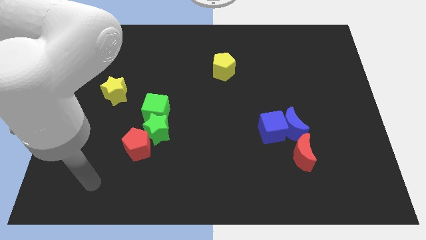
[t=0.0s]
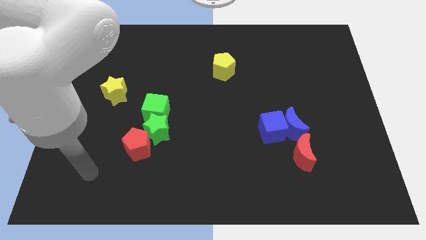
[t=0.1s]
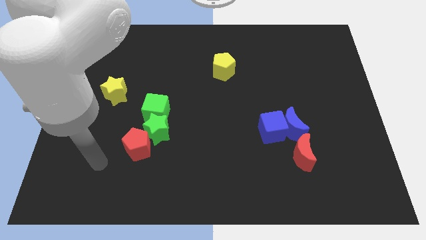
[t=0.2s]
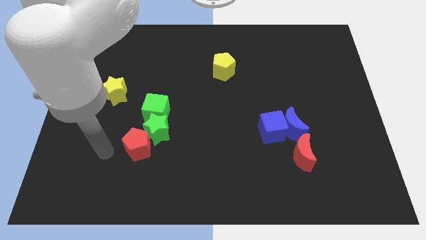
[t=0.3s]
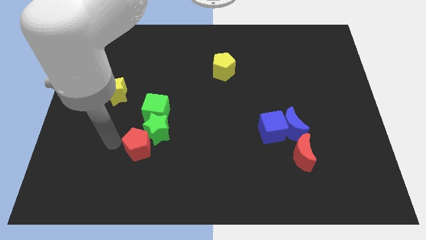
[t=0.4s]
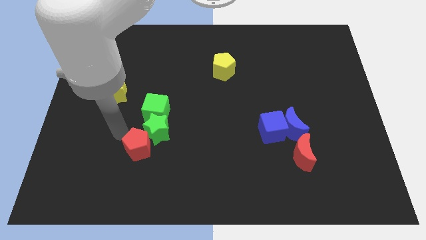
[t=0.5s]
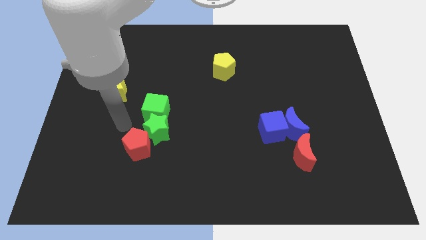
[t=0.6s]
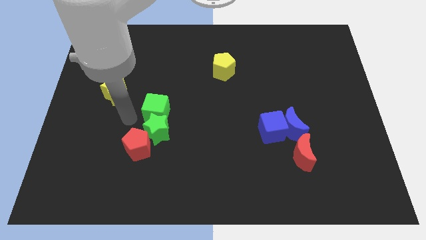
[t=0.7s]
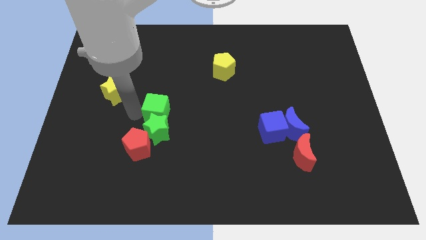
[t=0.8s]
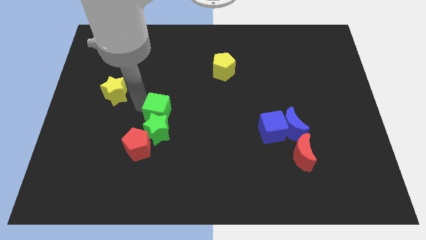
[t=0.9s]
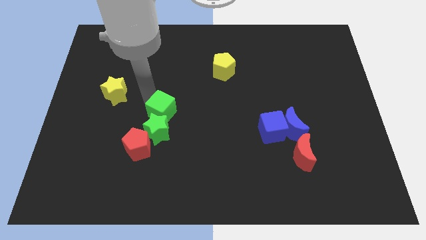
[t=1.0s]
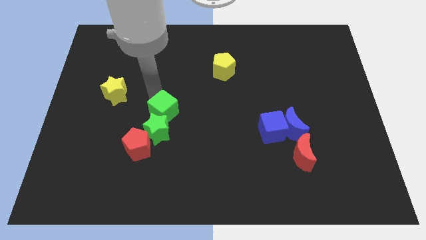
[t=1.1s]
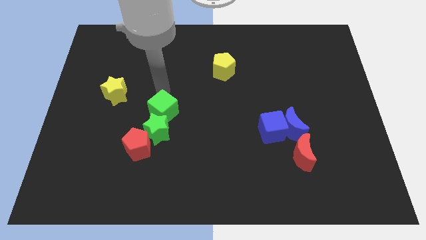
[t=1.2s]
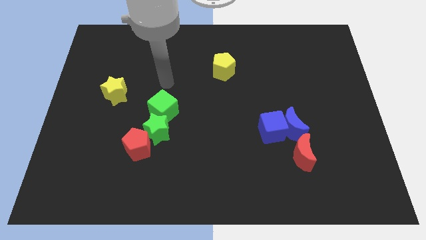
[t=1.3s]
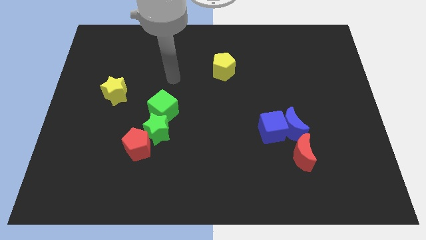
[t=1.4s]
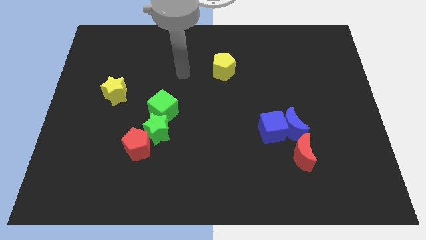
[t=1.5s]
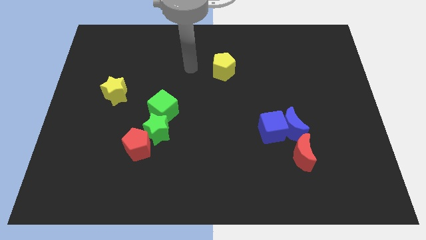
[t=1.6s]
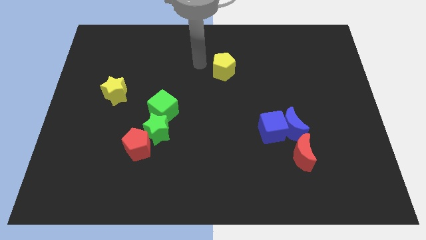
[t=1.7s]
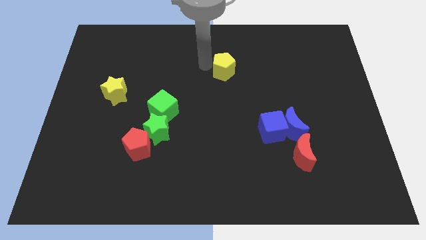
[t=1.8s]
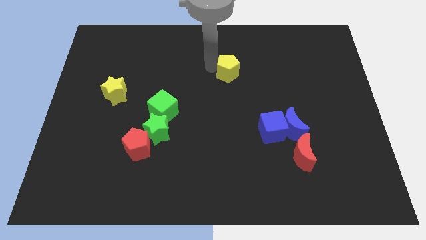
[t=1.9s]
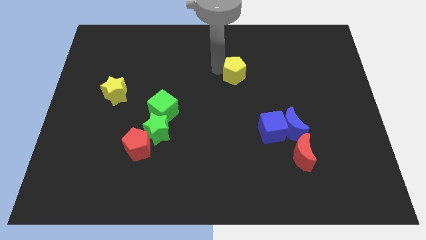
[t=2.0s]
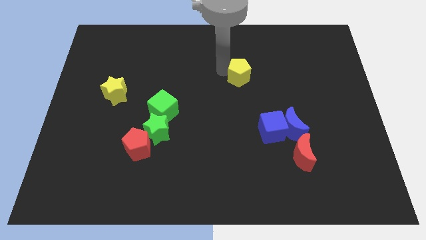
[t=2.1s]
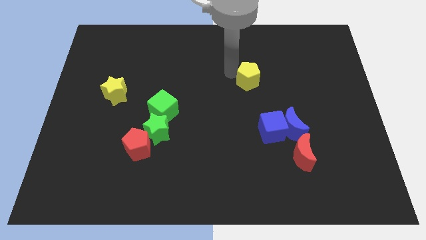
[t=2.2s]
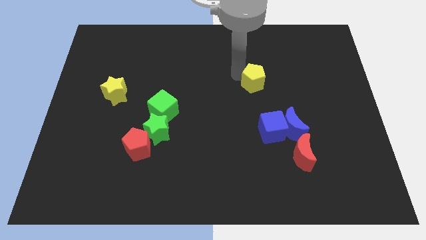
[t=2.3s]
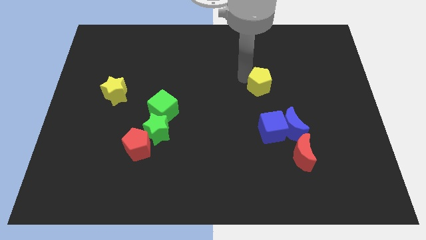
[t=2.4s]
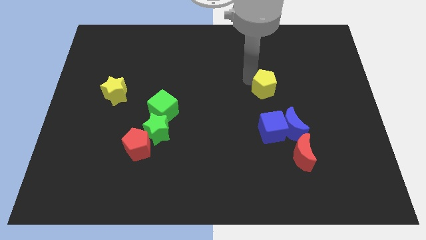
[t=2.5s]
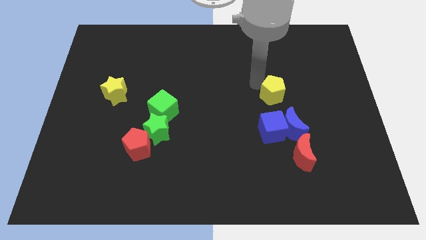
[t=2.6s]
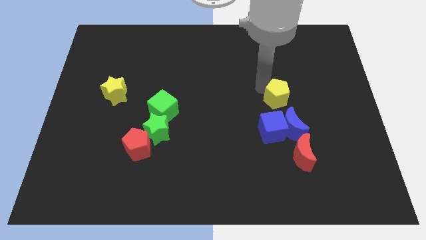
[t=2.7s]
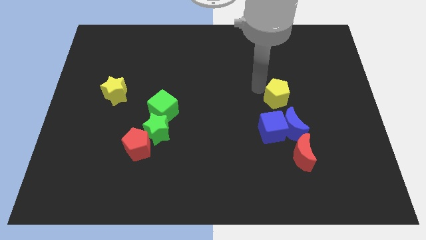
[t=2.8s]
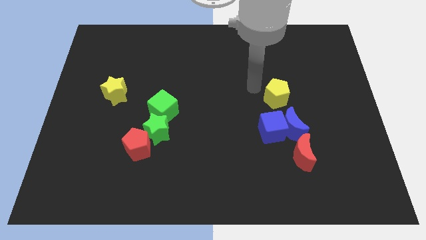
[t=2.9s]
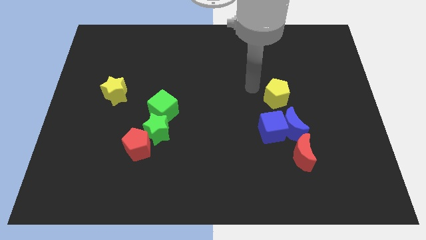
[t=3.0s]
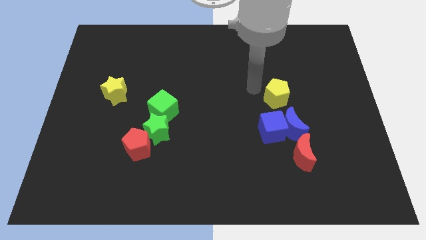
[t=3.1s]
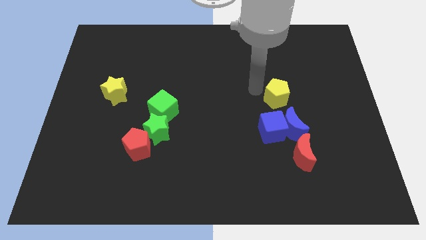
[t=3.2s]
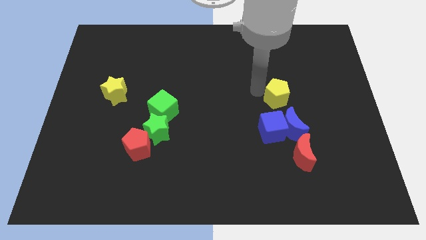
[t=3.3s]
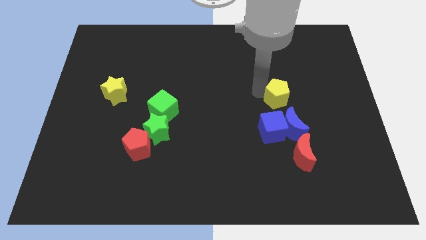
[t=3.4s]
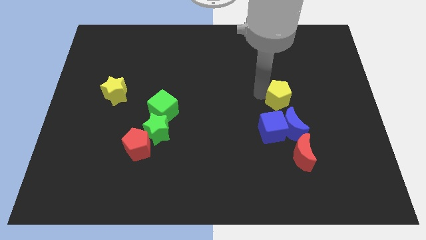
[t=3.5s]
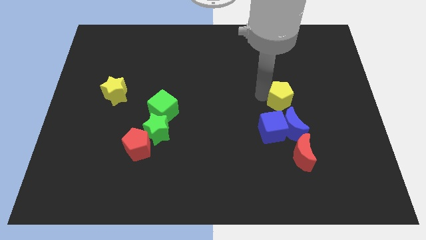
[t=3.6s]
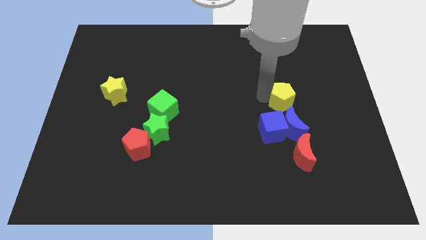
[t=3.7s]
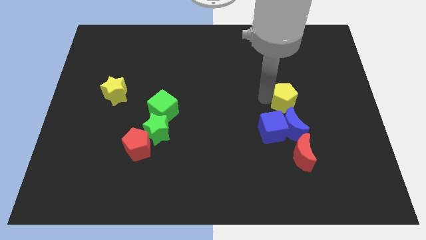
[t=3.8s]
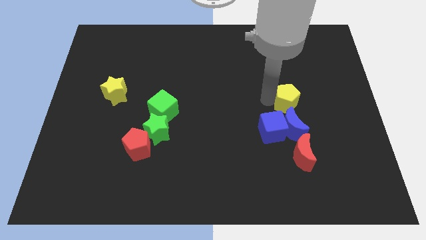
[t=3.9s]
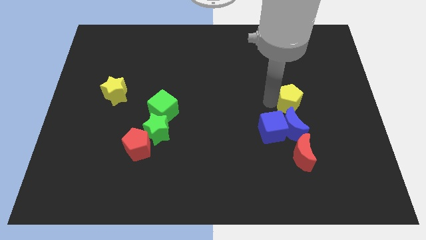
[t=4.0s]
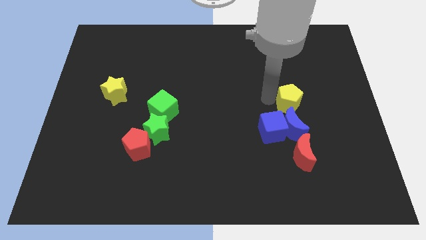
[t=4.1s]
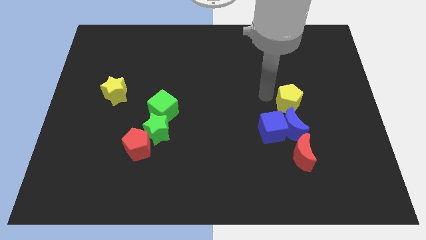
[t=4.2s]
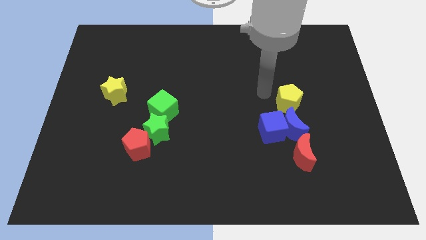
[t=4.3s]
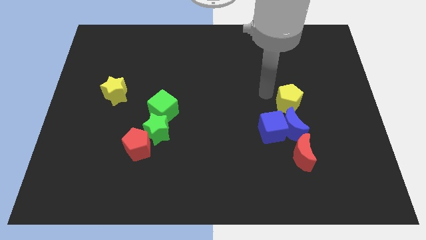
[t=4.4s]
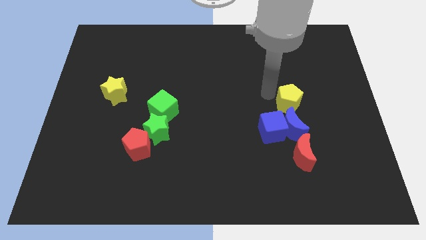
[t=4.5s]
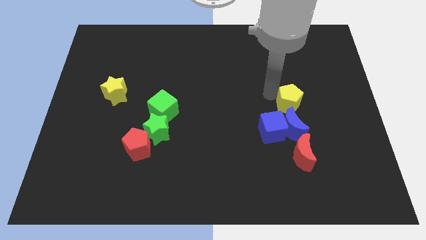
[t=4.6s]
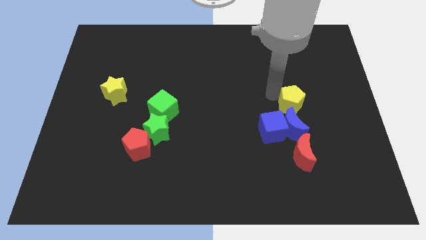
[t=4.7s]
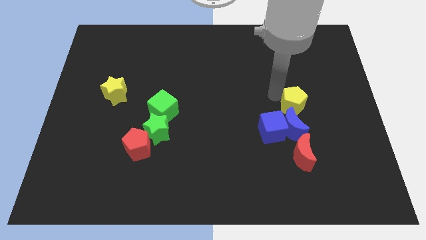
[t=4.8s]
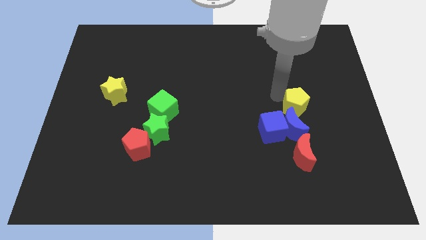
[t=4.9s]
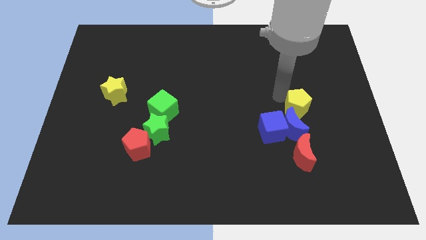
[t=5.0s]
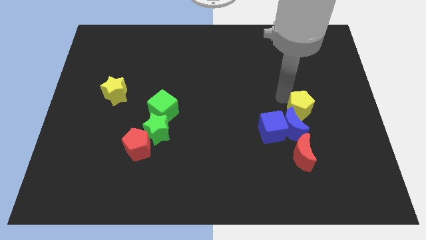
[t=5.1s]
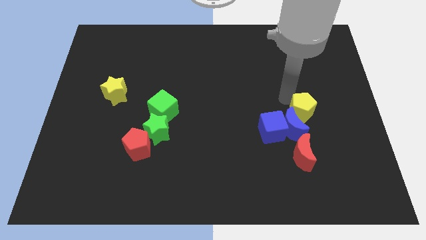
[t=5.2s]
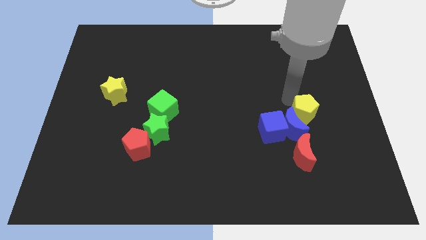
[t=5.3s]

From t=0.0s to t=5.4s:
push the yellow pentagon to the right of the blue cube

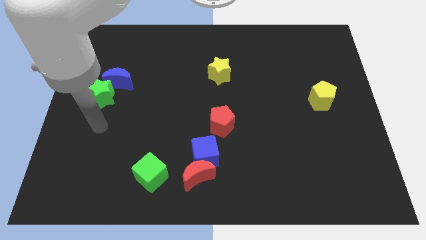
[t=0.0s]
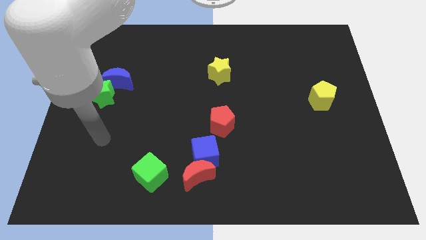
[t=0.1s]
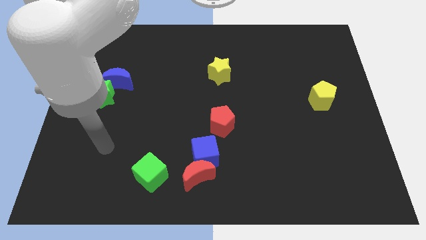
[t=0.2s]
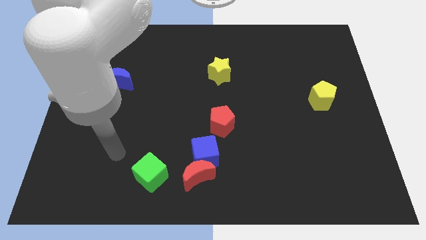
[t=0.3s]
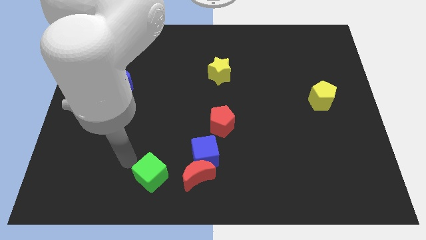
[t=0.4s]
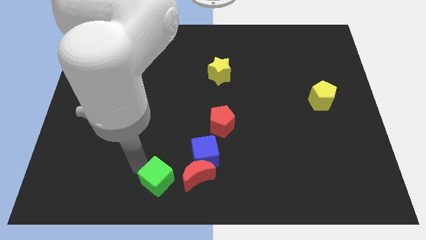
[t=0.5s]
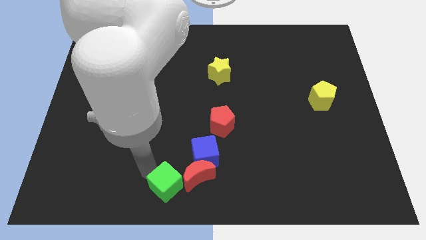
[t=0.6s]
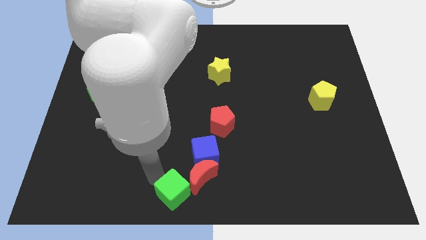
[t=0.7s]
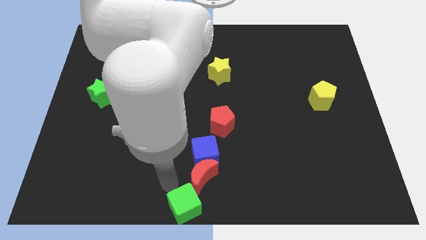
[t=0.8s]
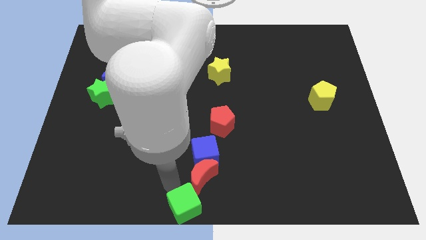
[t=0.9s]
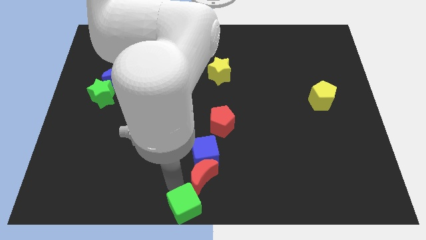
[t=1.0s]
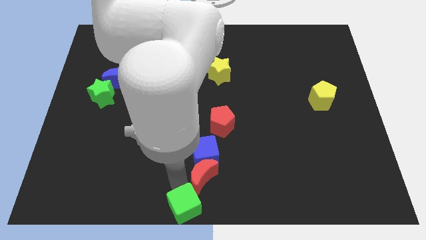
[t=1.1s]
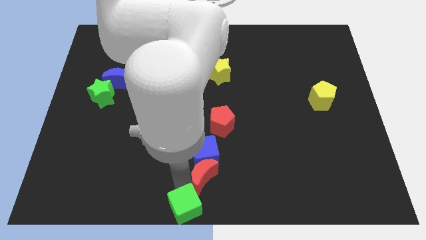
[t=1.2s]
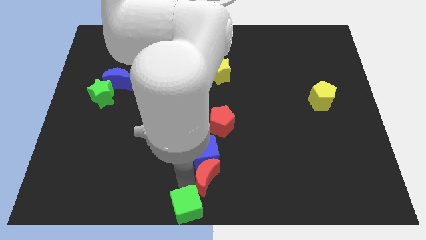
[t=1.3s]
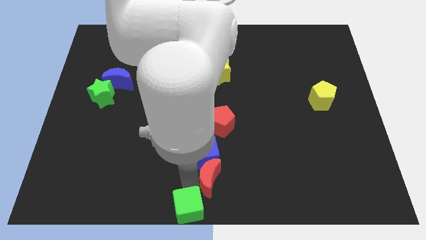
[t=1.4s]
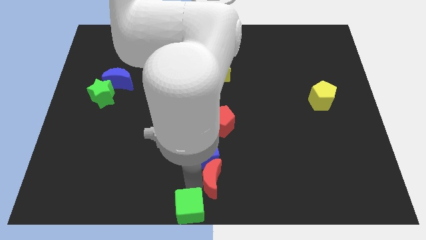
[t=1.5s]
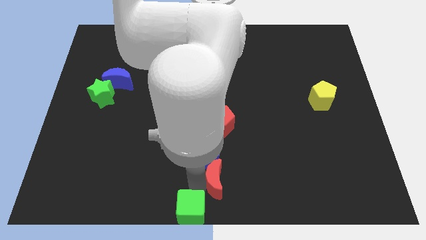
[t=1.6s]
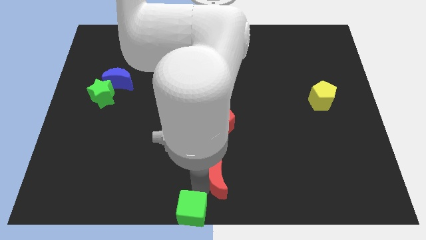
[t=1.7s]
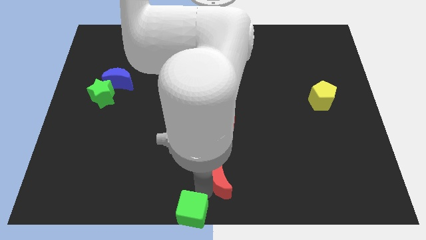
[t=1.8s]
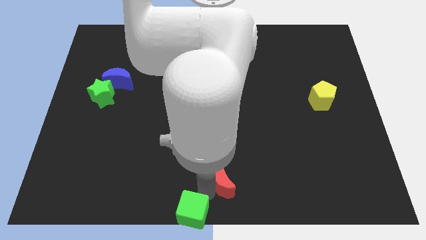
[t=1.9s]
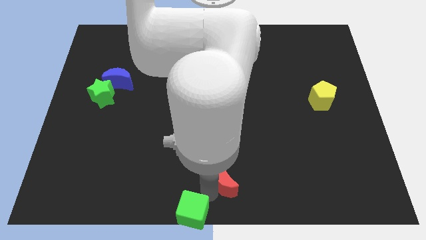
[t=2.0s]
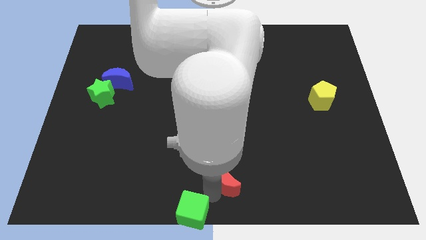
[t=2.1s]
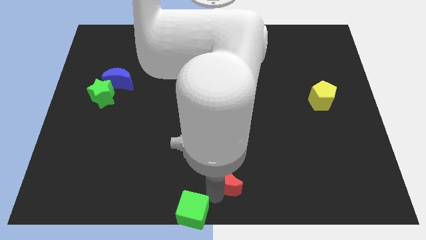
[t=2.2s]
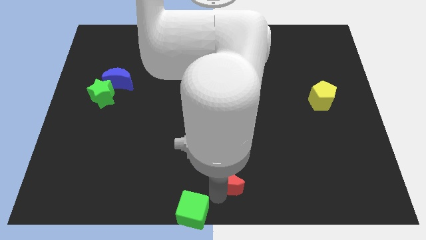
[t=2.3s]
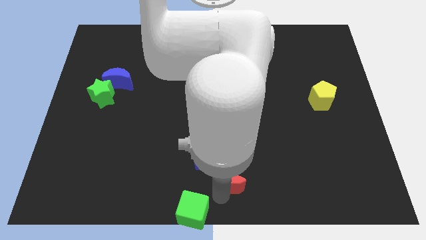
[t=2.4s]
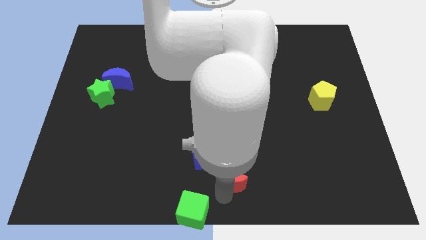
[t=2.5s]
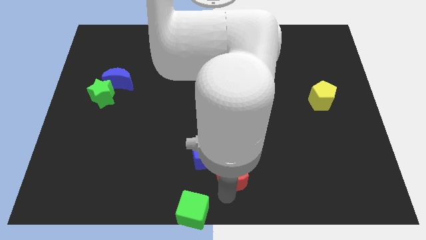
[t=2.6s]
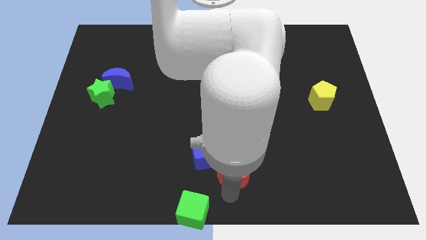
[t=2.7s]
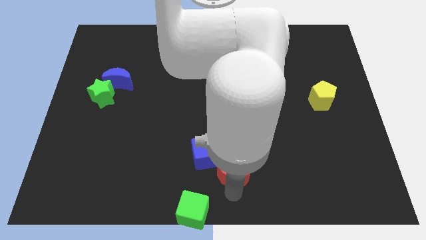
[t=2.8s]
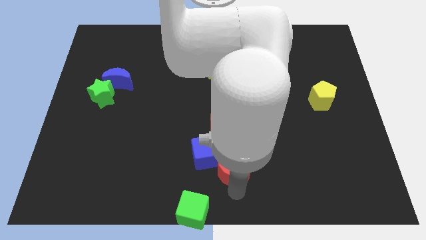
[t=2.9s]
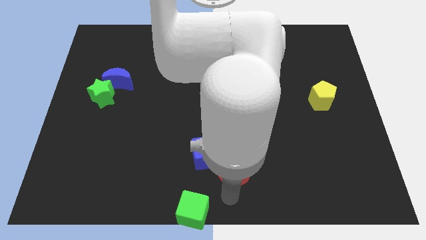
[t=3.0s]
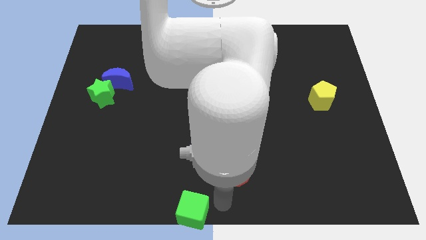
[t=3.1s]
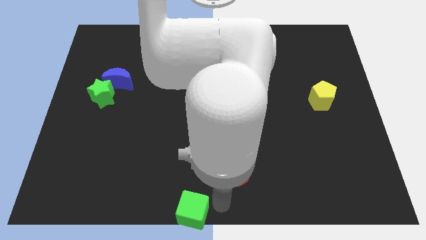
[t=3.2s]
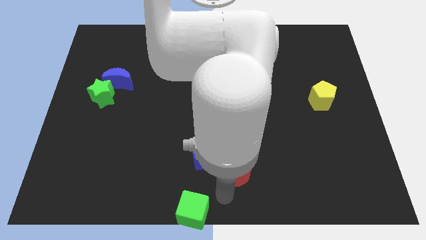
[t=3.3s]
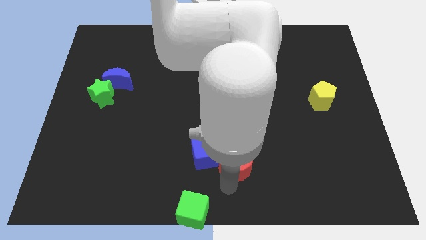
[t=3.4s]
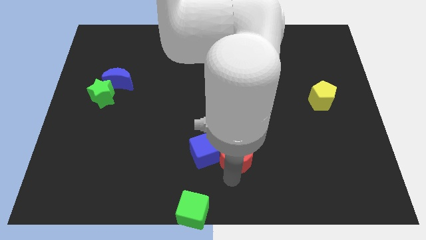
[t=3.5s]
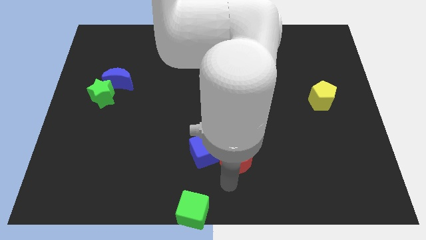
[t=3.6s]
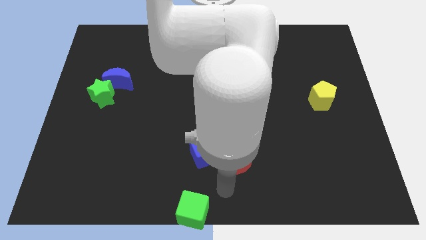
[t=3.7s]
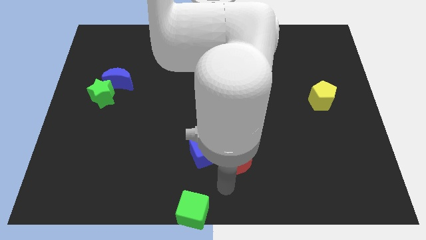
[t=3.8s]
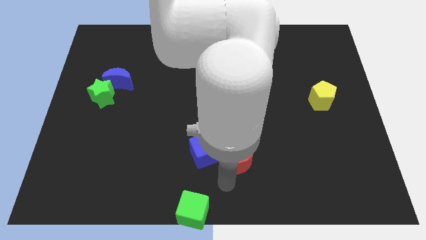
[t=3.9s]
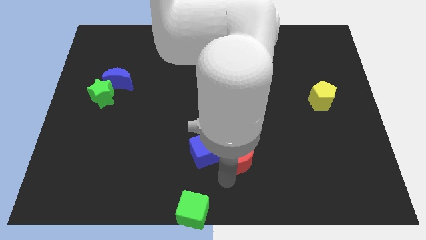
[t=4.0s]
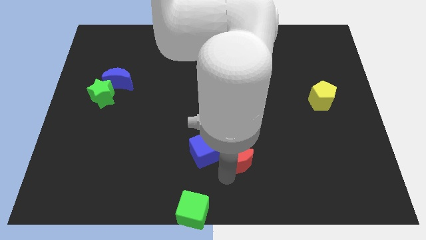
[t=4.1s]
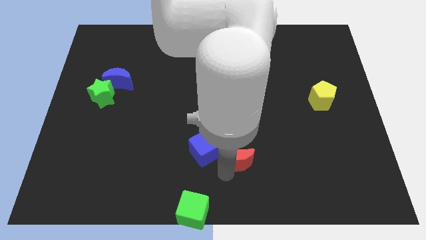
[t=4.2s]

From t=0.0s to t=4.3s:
push the red moon diagonally down and to the right of the red pentagon
